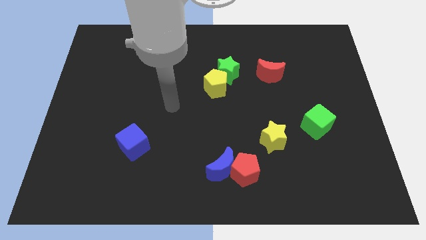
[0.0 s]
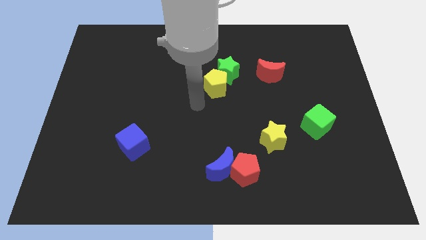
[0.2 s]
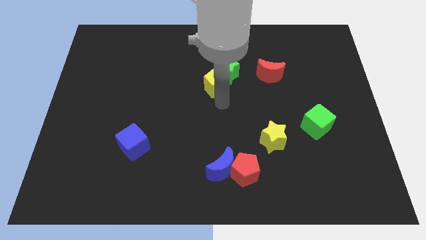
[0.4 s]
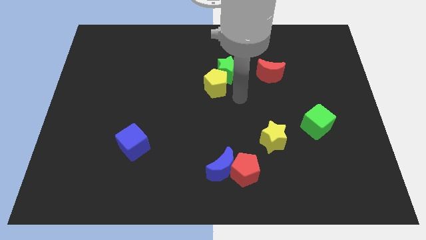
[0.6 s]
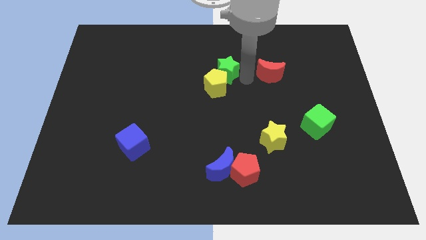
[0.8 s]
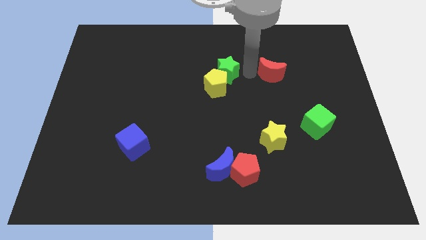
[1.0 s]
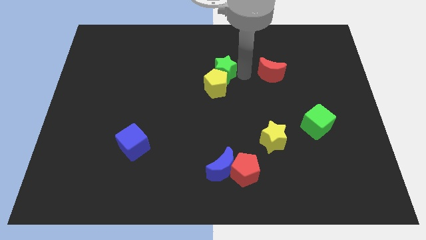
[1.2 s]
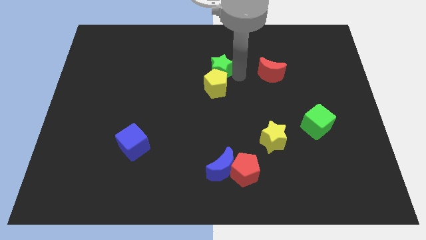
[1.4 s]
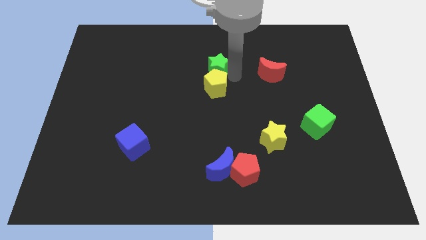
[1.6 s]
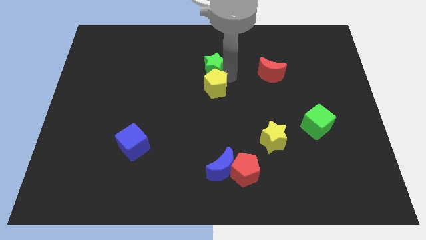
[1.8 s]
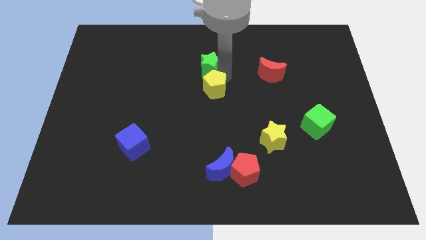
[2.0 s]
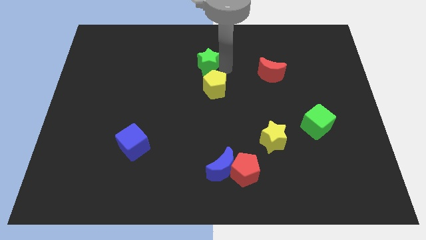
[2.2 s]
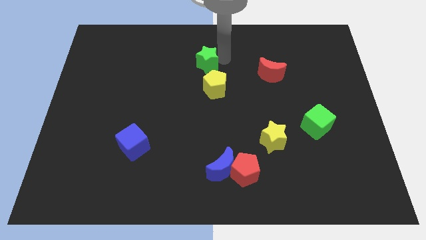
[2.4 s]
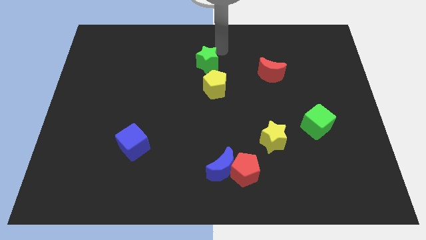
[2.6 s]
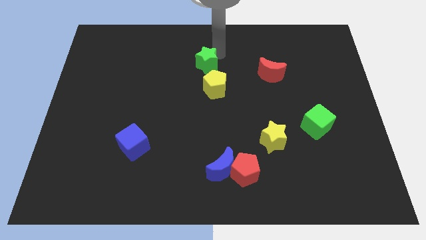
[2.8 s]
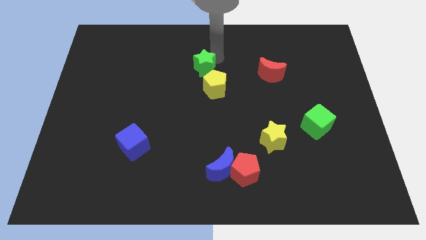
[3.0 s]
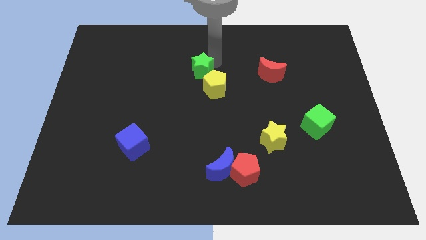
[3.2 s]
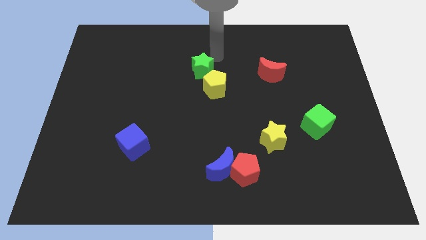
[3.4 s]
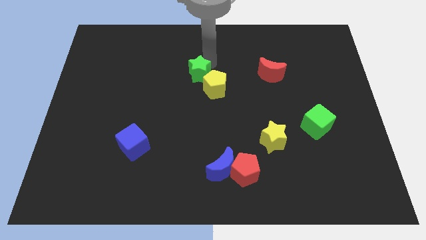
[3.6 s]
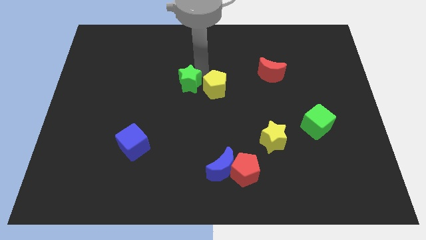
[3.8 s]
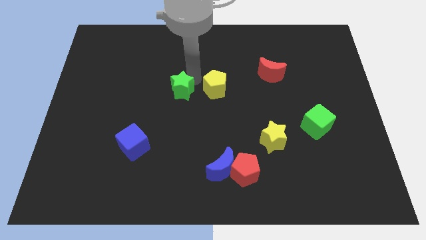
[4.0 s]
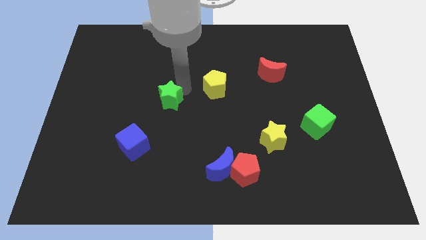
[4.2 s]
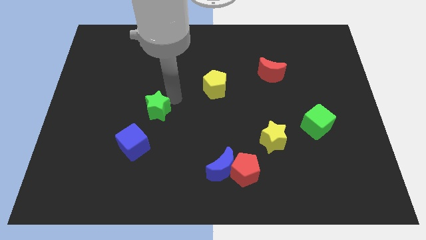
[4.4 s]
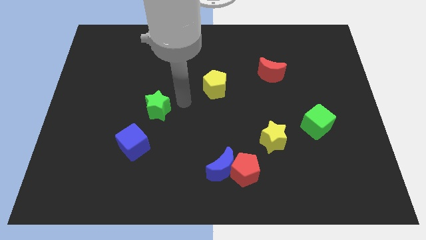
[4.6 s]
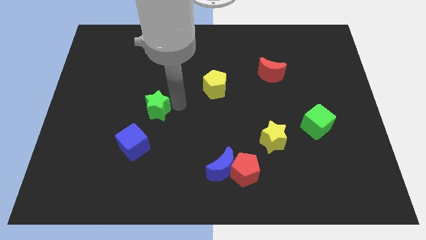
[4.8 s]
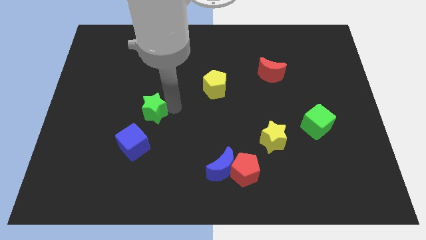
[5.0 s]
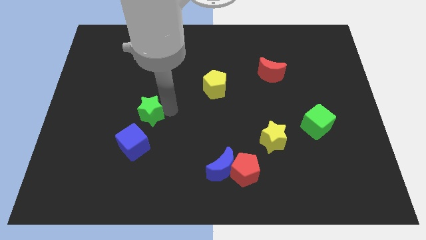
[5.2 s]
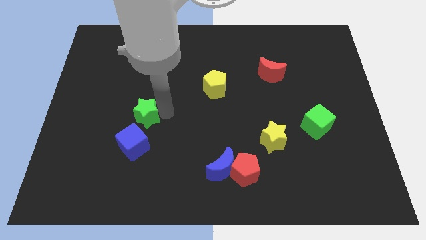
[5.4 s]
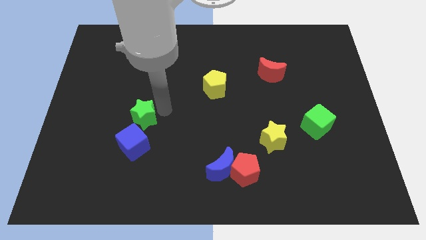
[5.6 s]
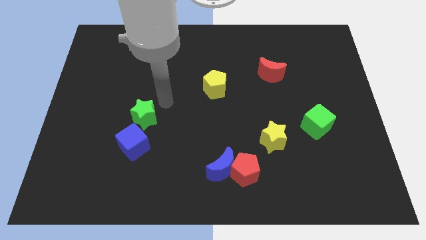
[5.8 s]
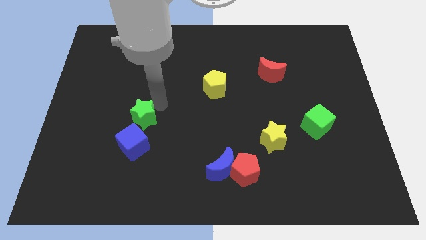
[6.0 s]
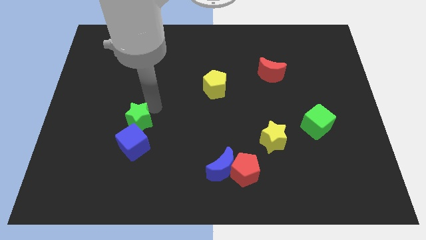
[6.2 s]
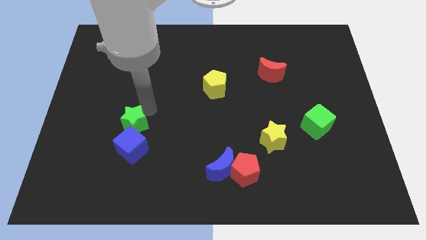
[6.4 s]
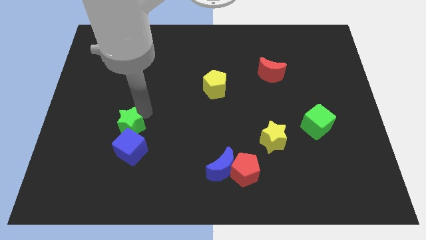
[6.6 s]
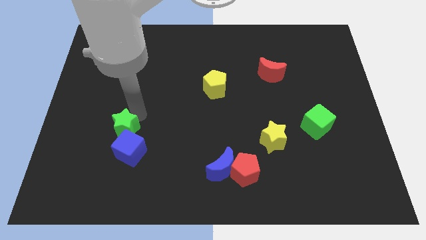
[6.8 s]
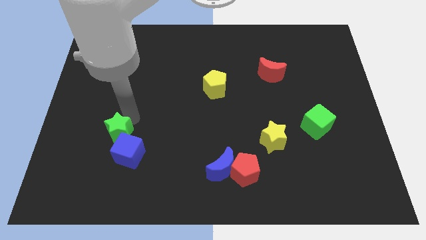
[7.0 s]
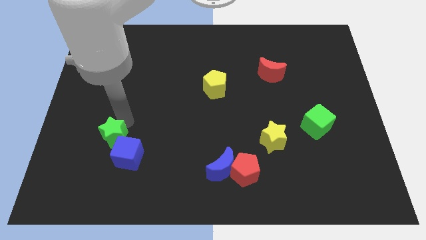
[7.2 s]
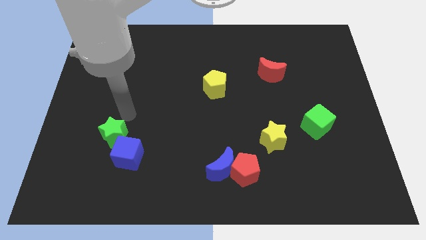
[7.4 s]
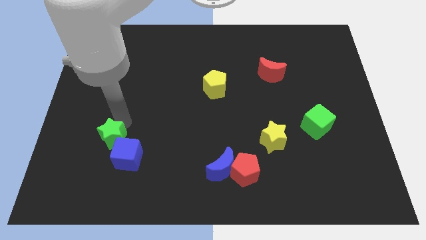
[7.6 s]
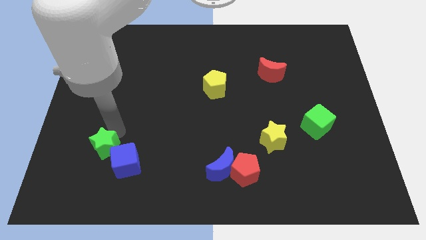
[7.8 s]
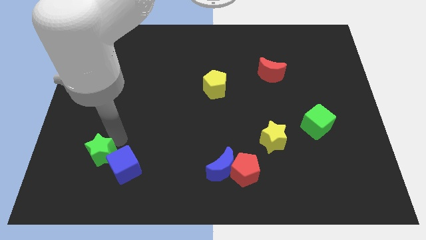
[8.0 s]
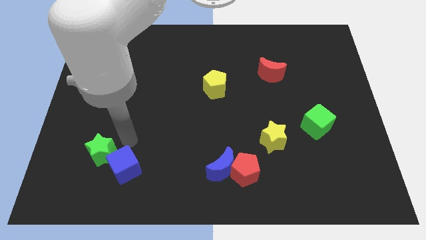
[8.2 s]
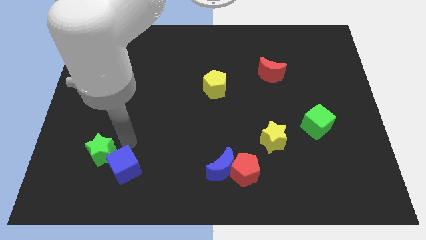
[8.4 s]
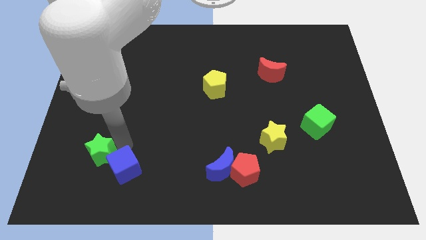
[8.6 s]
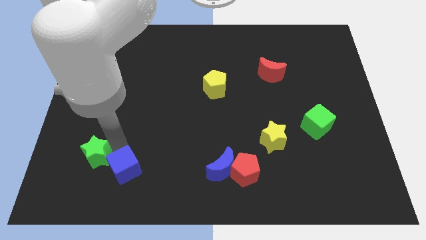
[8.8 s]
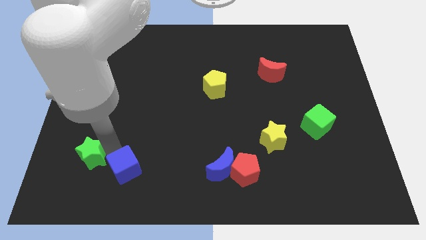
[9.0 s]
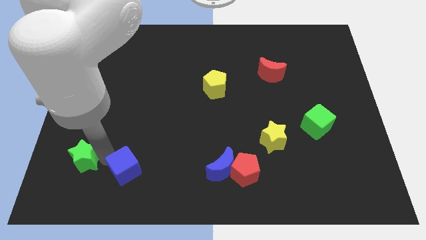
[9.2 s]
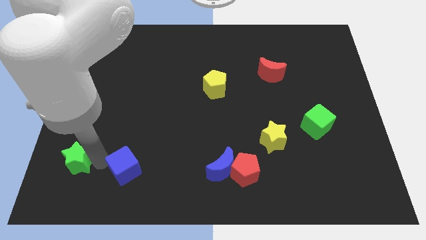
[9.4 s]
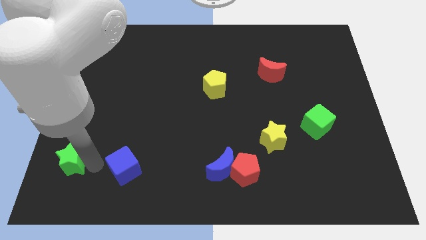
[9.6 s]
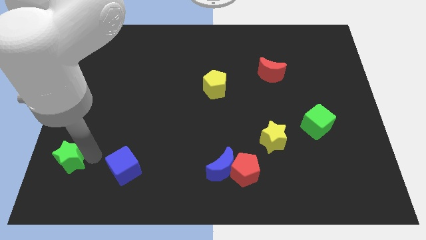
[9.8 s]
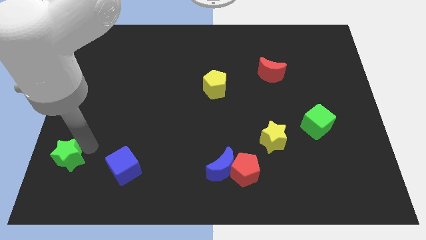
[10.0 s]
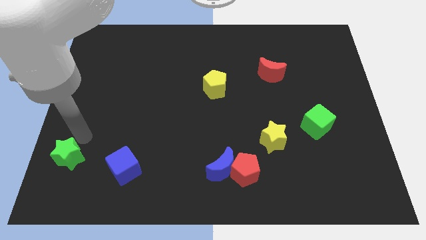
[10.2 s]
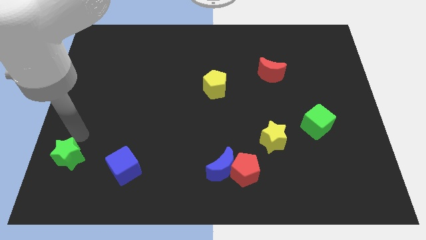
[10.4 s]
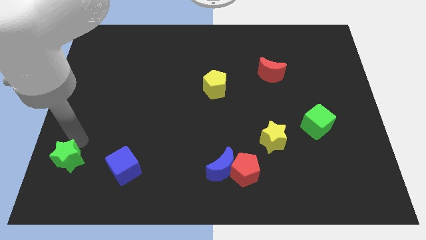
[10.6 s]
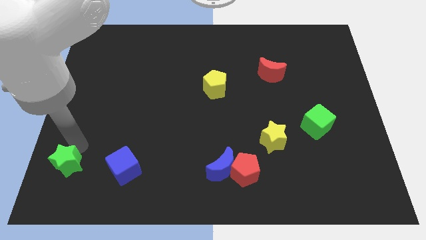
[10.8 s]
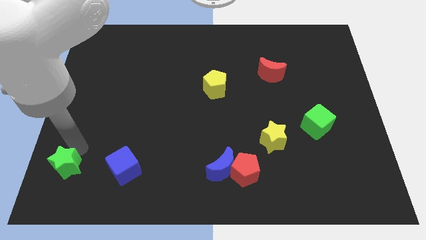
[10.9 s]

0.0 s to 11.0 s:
push the green star to the bottom left corner

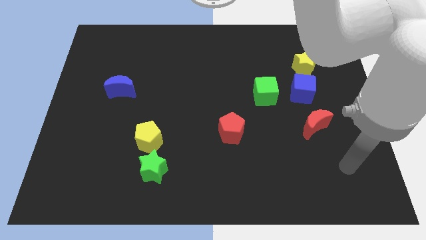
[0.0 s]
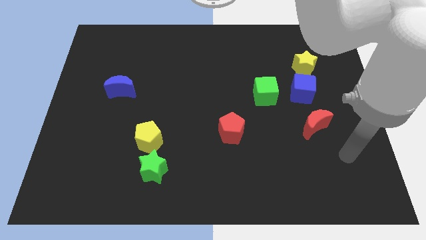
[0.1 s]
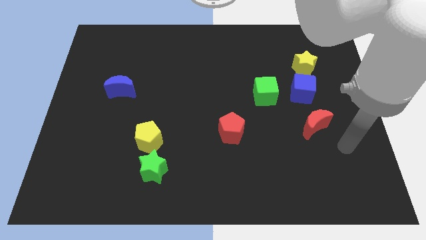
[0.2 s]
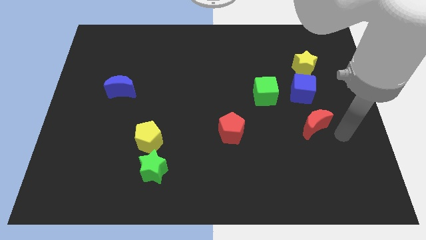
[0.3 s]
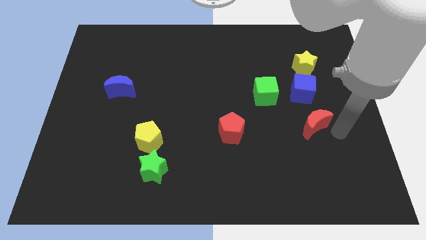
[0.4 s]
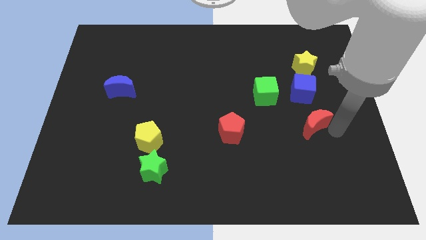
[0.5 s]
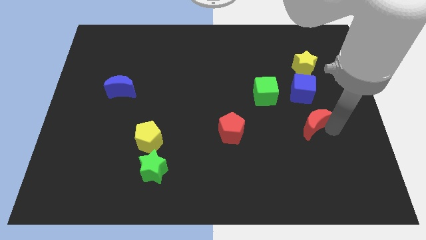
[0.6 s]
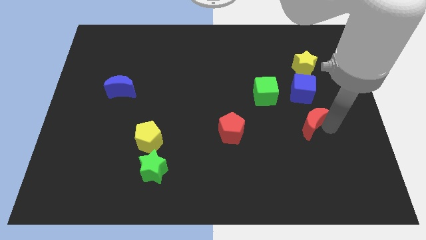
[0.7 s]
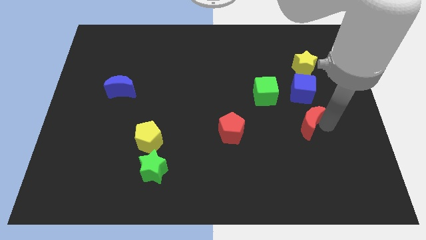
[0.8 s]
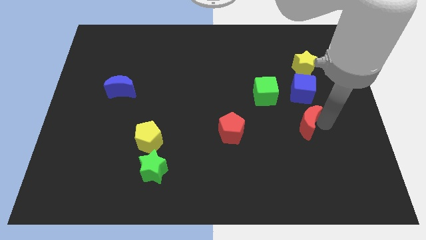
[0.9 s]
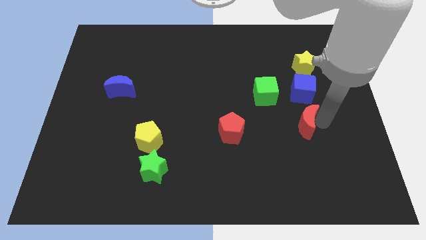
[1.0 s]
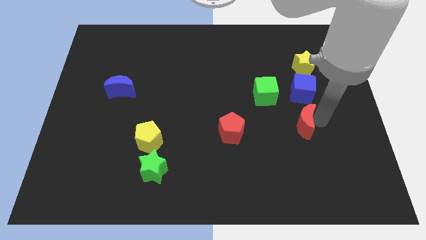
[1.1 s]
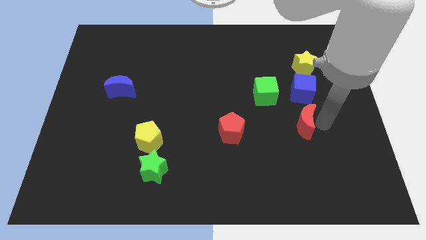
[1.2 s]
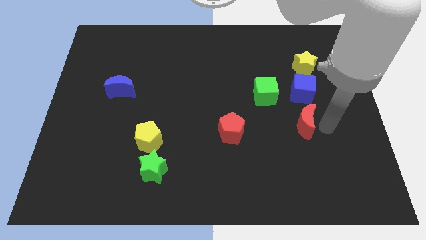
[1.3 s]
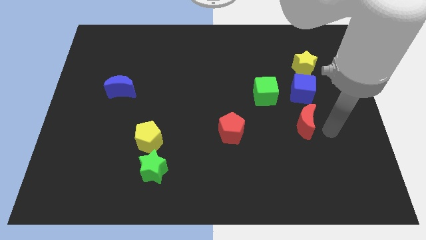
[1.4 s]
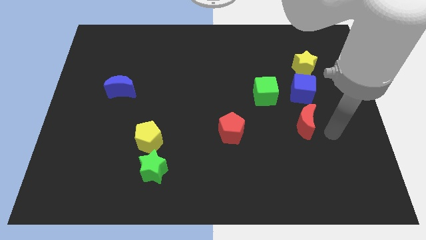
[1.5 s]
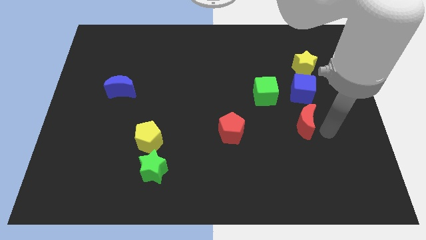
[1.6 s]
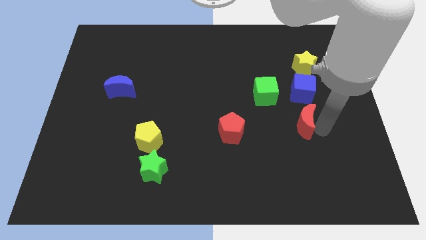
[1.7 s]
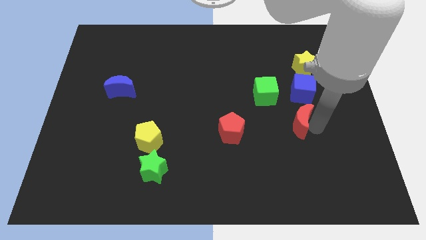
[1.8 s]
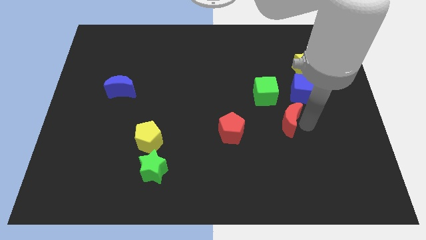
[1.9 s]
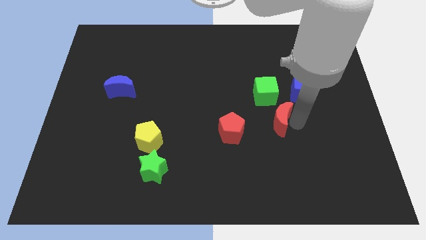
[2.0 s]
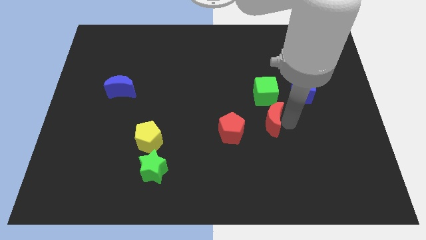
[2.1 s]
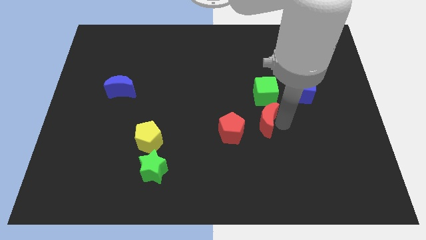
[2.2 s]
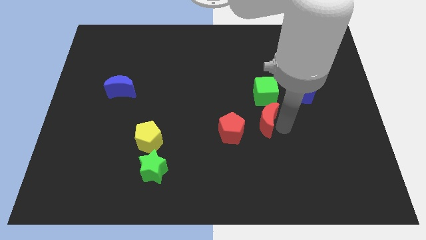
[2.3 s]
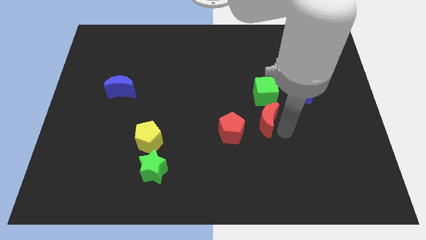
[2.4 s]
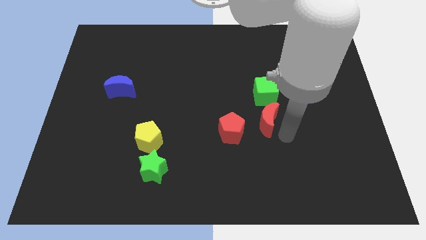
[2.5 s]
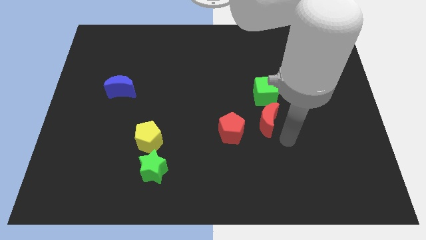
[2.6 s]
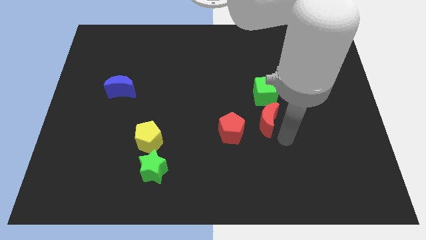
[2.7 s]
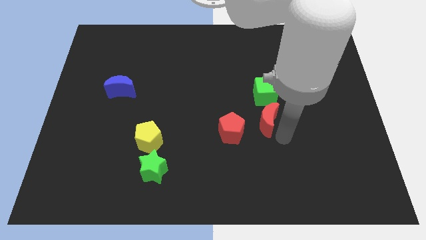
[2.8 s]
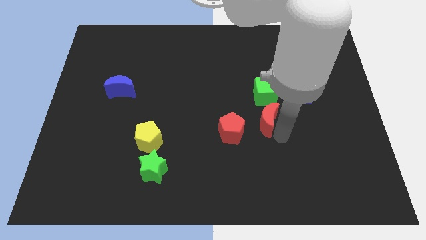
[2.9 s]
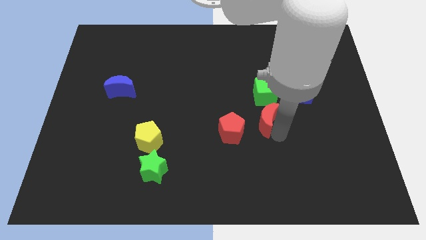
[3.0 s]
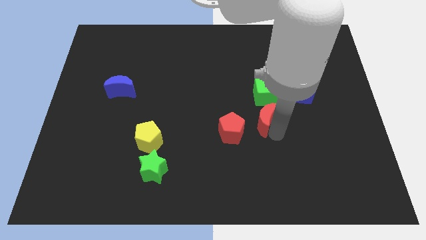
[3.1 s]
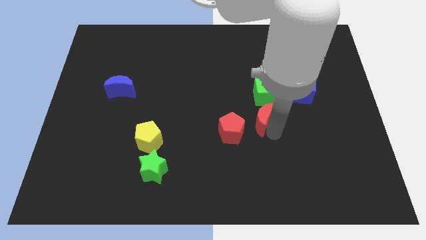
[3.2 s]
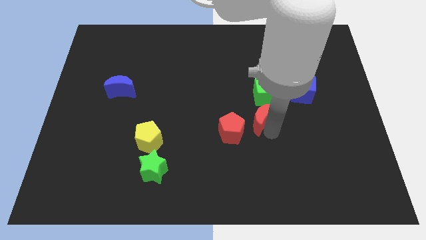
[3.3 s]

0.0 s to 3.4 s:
move the red moon to the center of the board
